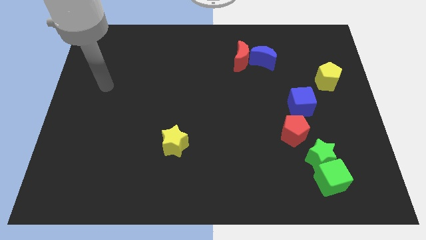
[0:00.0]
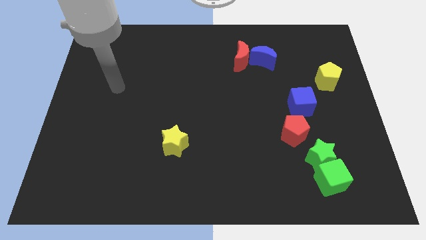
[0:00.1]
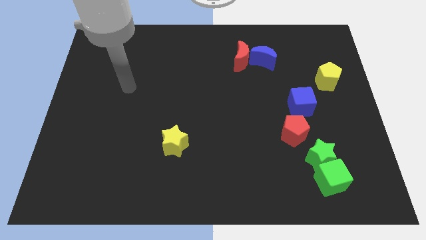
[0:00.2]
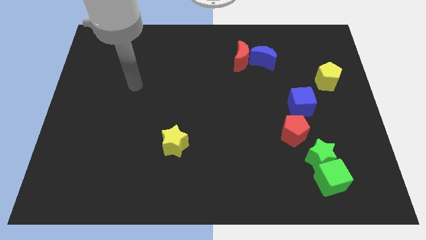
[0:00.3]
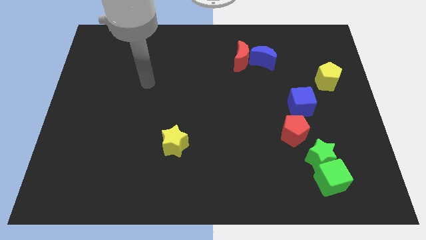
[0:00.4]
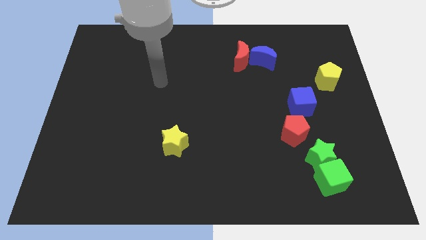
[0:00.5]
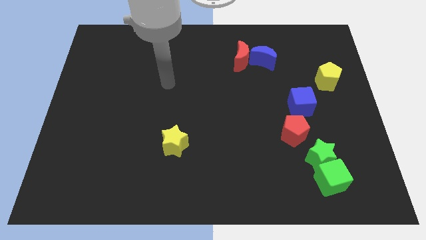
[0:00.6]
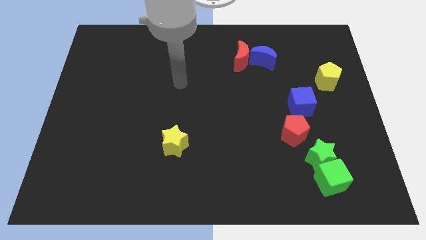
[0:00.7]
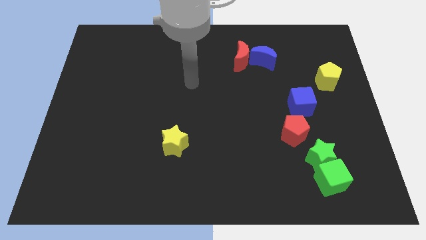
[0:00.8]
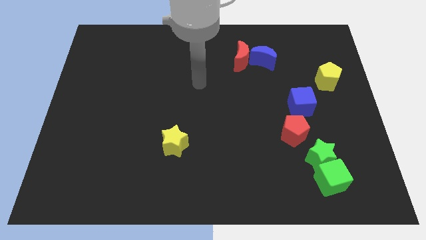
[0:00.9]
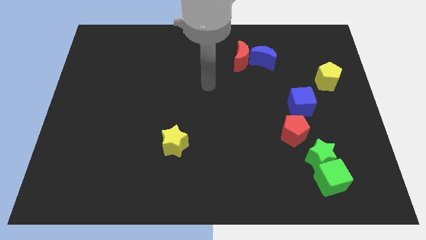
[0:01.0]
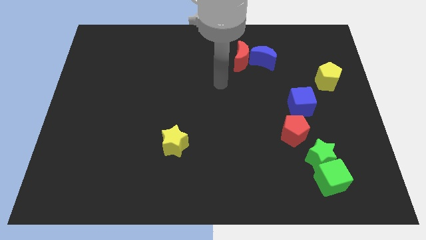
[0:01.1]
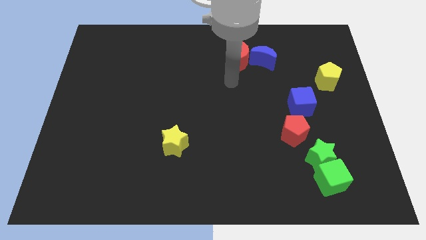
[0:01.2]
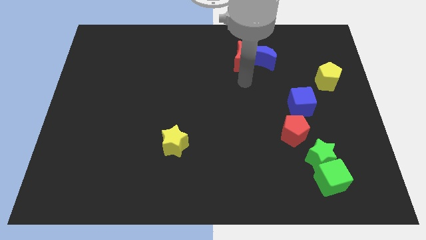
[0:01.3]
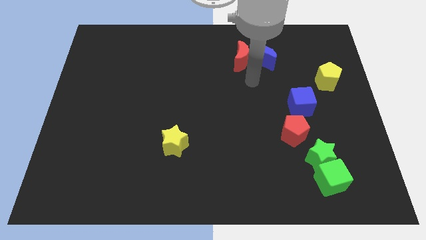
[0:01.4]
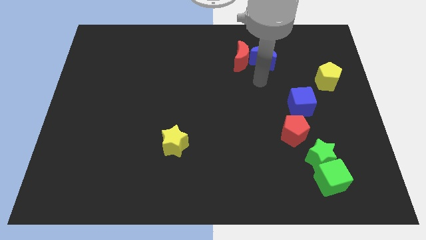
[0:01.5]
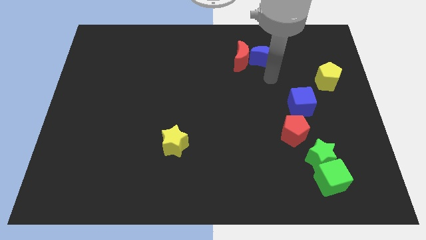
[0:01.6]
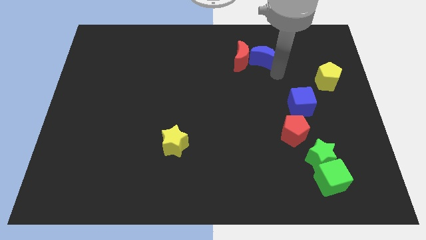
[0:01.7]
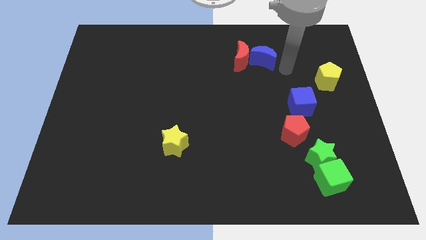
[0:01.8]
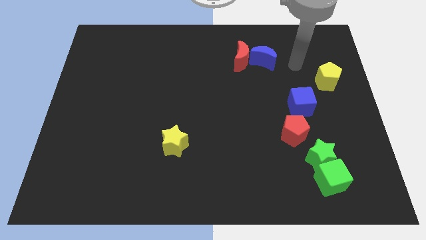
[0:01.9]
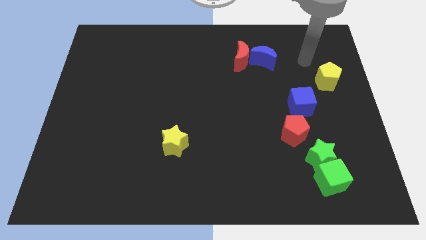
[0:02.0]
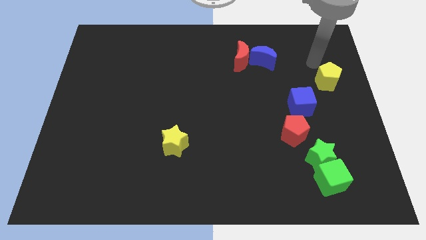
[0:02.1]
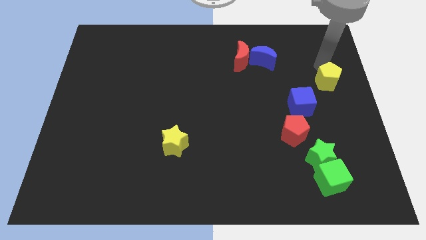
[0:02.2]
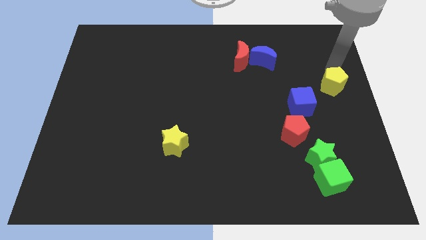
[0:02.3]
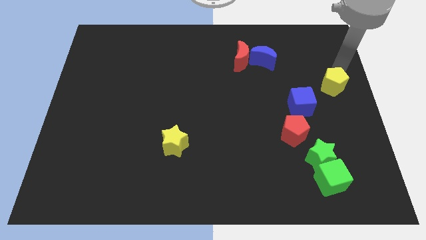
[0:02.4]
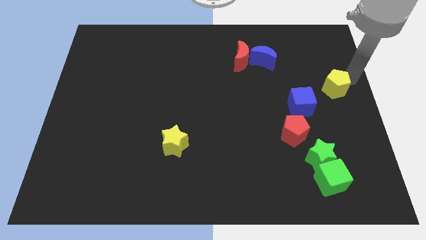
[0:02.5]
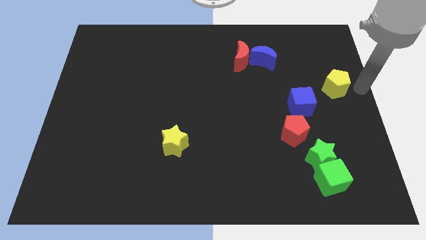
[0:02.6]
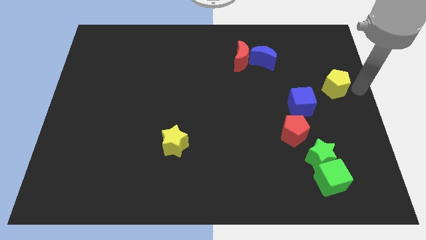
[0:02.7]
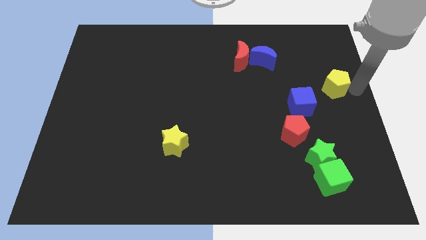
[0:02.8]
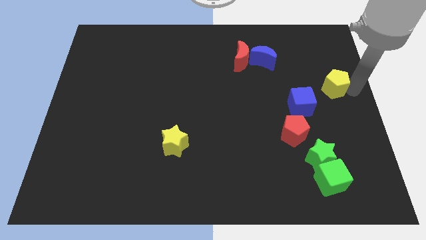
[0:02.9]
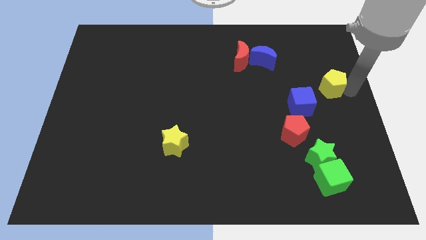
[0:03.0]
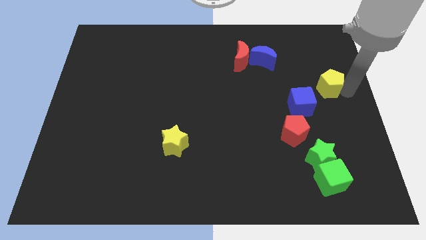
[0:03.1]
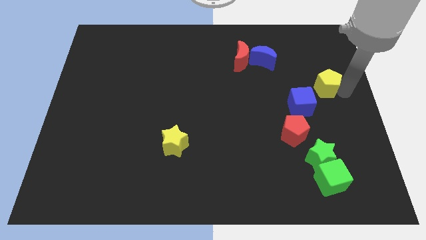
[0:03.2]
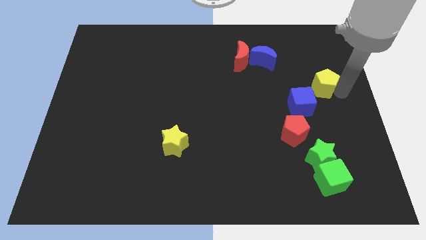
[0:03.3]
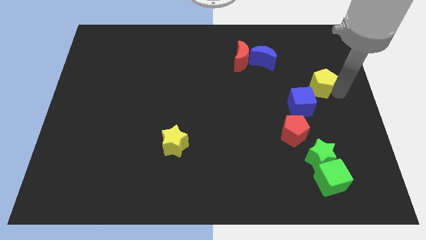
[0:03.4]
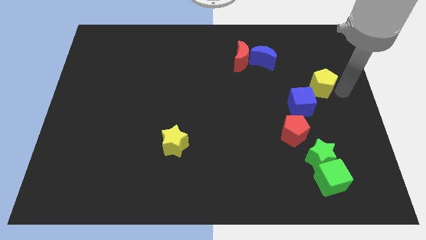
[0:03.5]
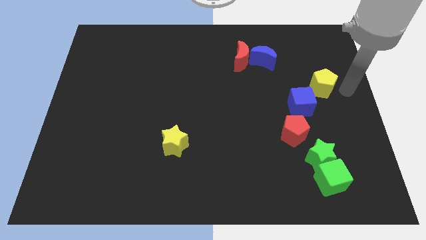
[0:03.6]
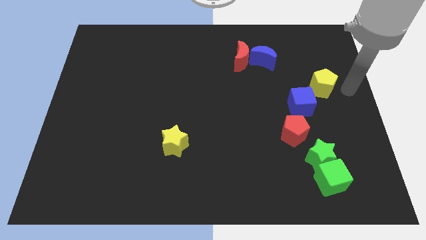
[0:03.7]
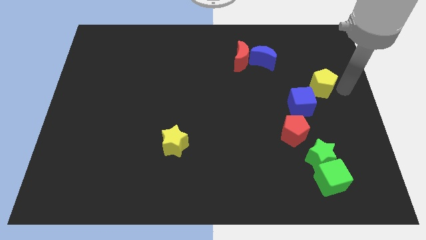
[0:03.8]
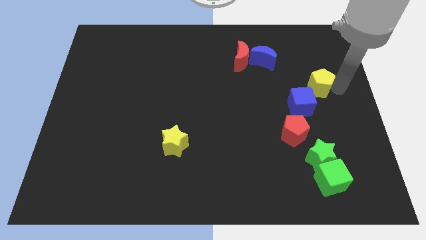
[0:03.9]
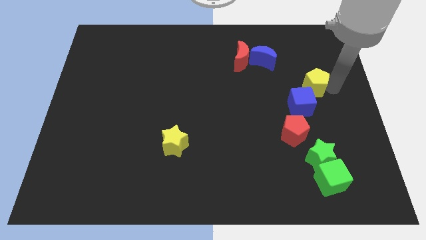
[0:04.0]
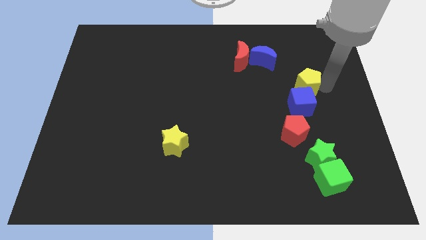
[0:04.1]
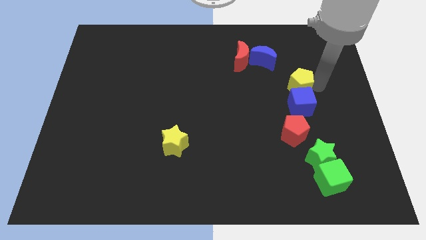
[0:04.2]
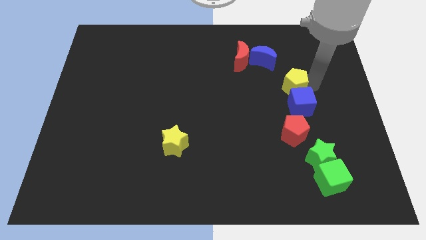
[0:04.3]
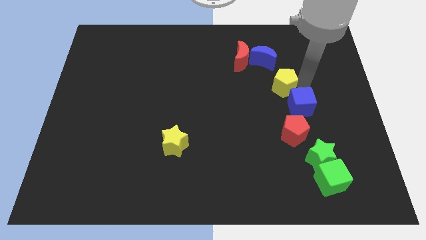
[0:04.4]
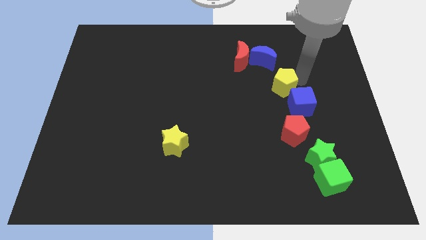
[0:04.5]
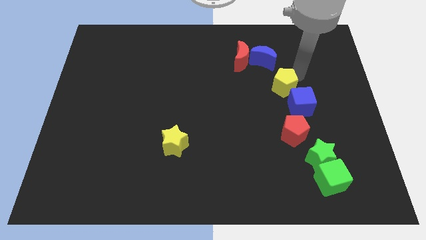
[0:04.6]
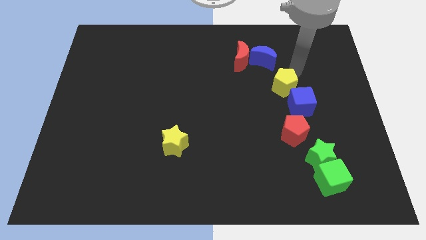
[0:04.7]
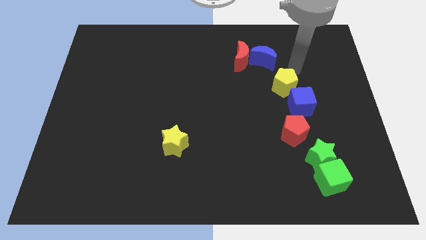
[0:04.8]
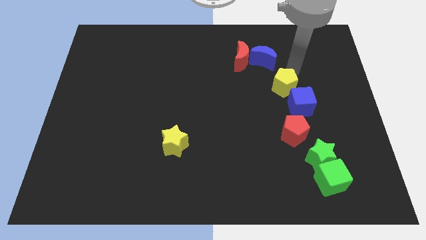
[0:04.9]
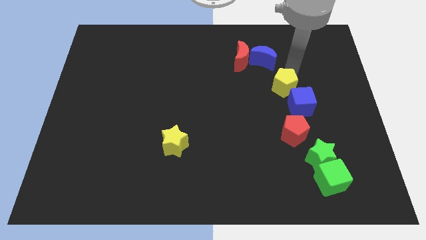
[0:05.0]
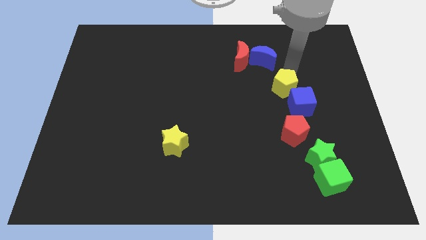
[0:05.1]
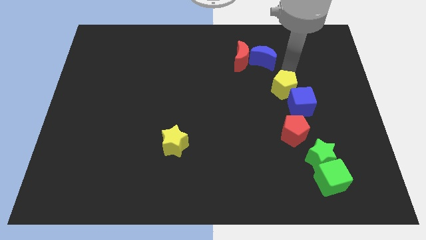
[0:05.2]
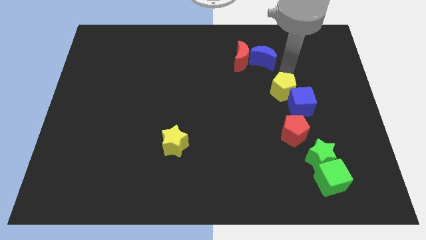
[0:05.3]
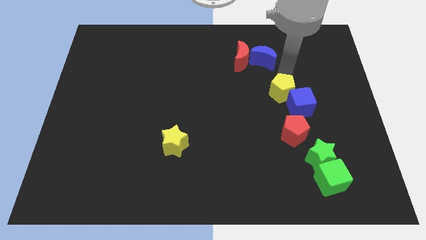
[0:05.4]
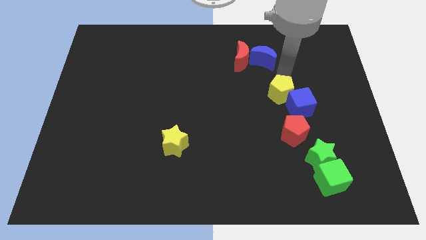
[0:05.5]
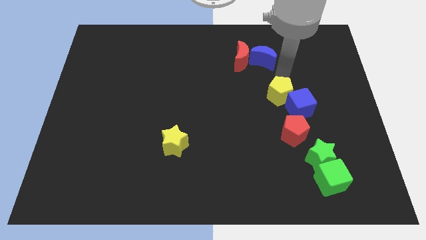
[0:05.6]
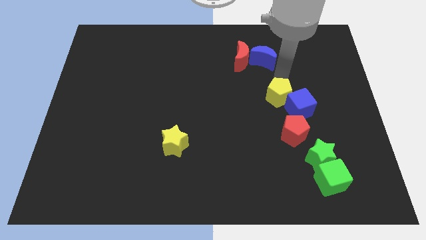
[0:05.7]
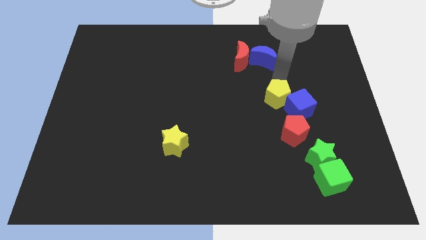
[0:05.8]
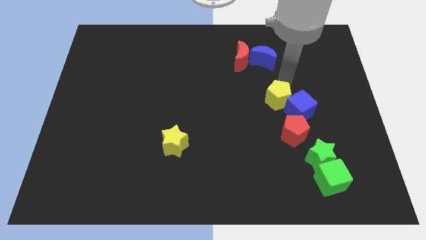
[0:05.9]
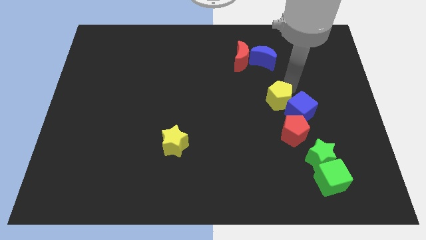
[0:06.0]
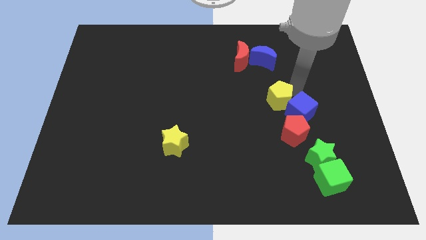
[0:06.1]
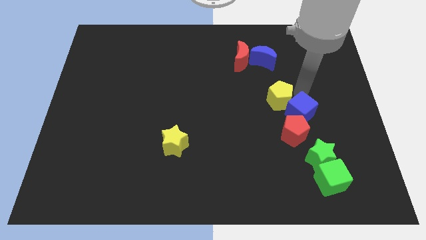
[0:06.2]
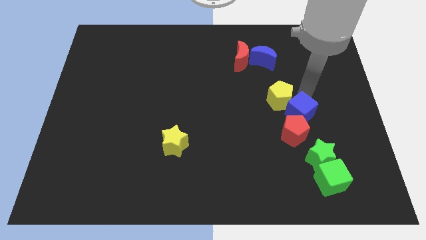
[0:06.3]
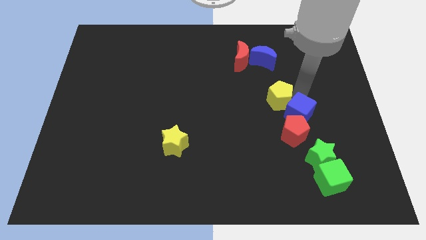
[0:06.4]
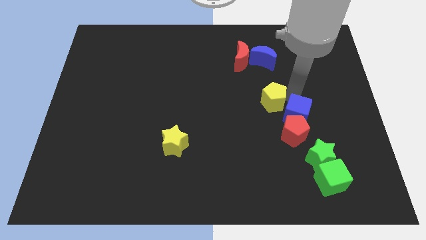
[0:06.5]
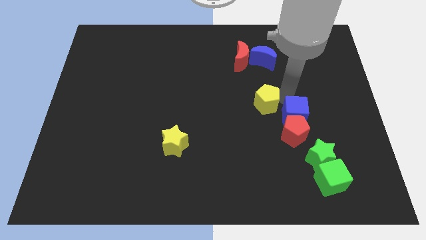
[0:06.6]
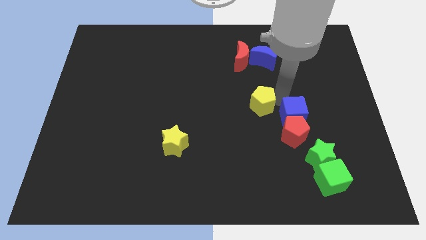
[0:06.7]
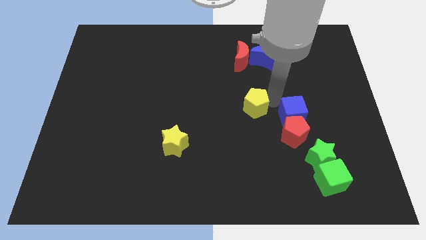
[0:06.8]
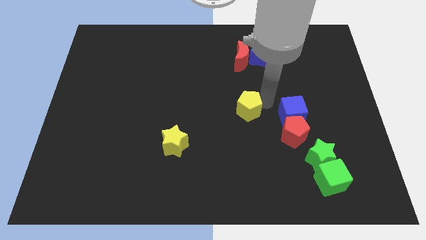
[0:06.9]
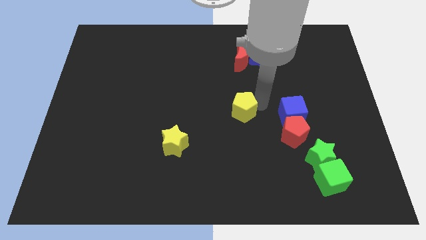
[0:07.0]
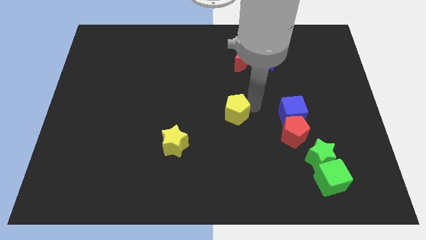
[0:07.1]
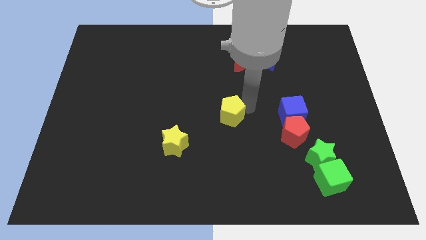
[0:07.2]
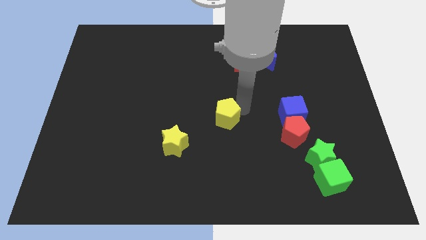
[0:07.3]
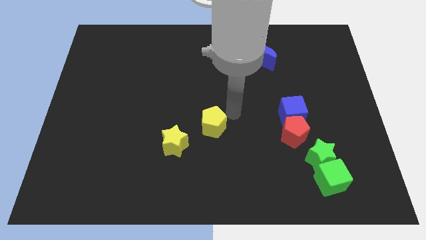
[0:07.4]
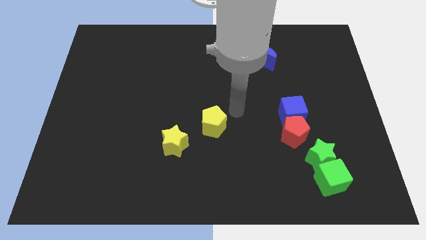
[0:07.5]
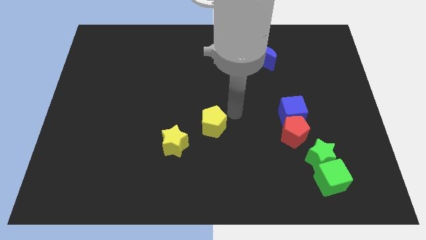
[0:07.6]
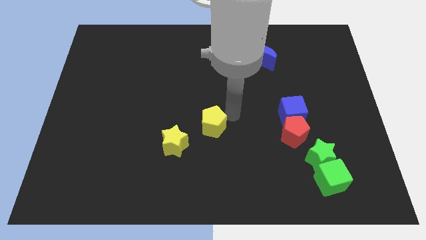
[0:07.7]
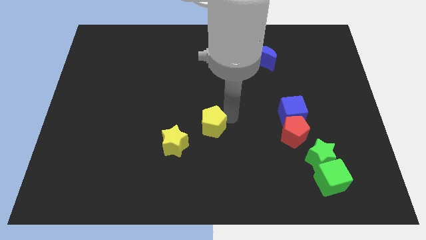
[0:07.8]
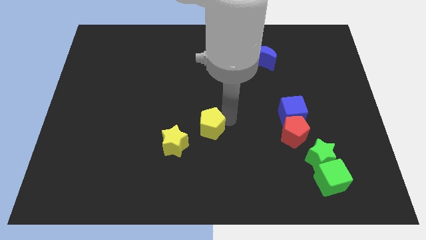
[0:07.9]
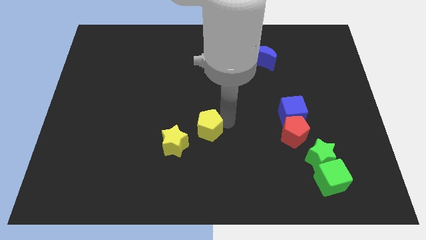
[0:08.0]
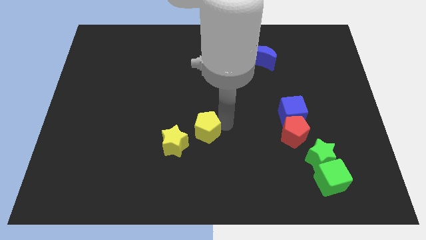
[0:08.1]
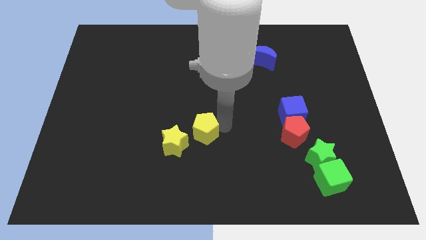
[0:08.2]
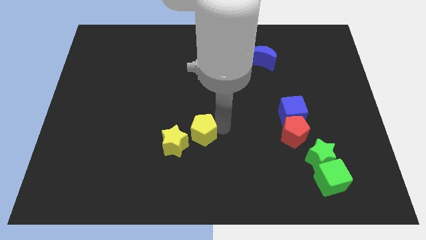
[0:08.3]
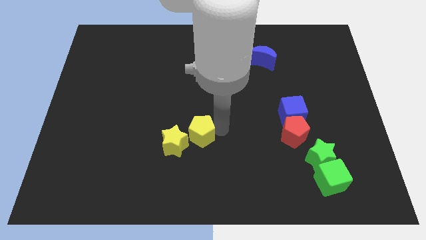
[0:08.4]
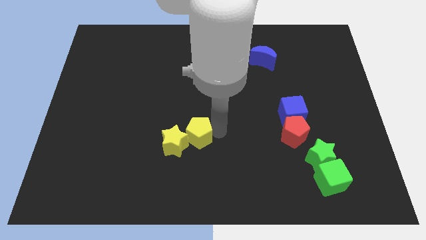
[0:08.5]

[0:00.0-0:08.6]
slide the yellow pentagon to the yellow star
